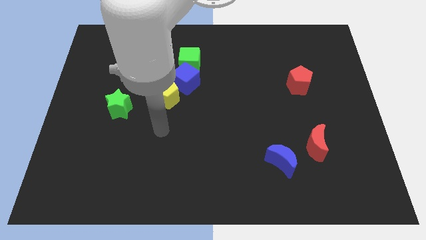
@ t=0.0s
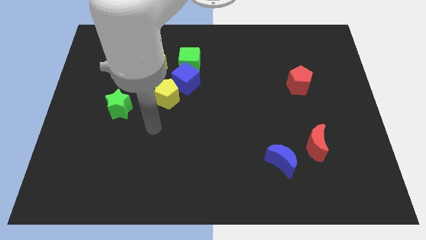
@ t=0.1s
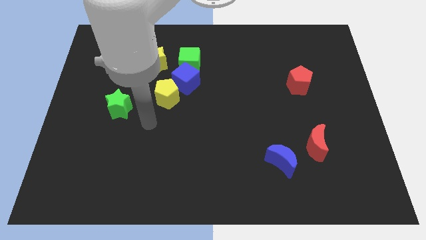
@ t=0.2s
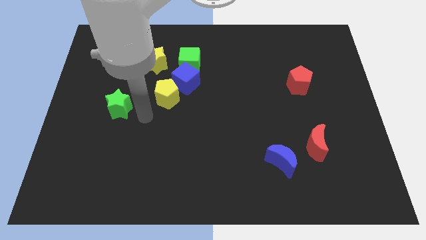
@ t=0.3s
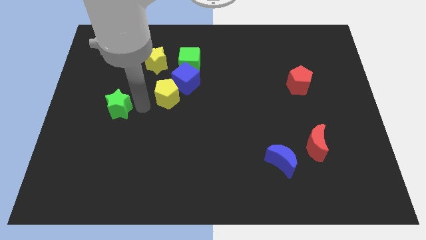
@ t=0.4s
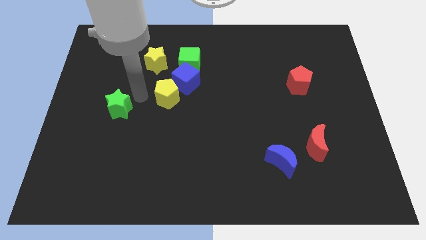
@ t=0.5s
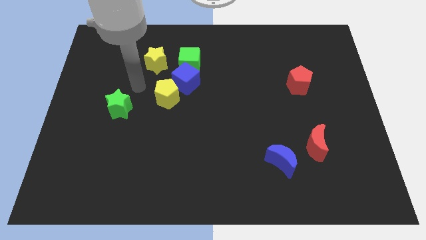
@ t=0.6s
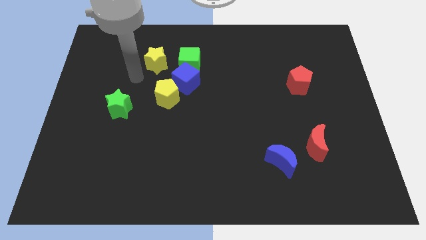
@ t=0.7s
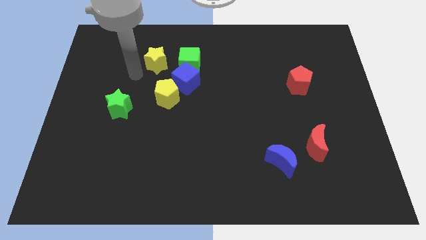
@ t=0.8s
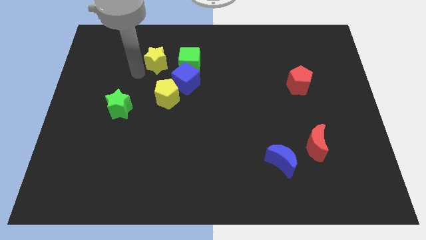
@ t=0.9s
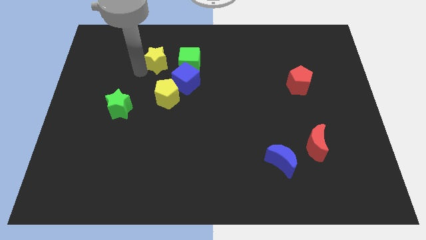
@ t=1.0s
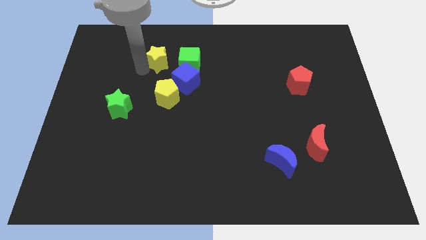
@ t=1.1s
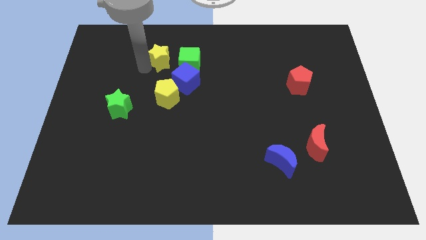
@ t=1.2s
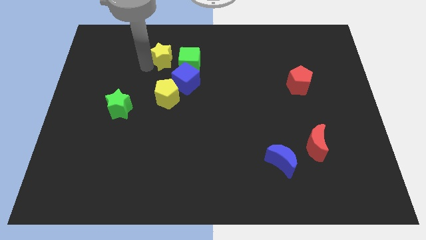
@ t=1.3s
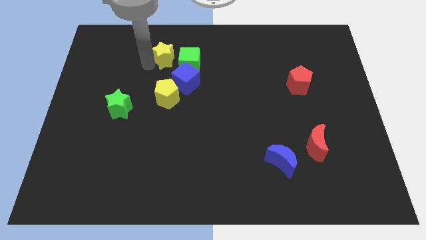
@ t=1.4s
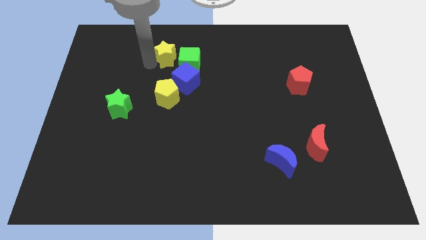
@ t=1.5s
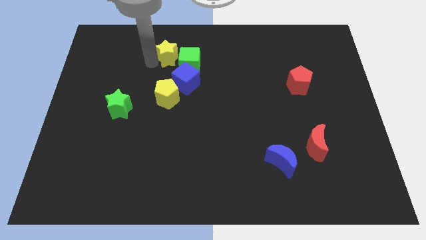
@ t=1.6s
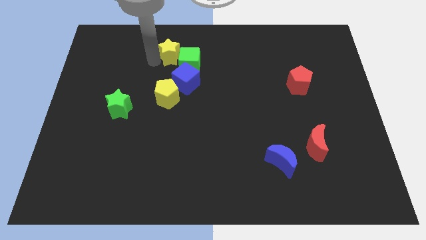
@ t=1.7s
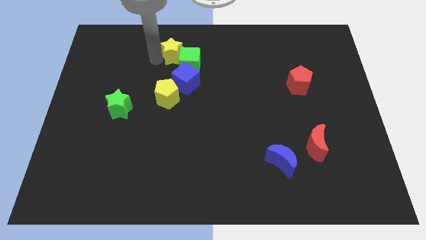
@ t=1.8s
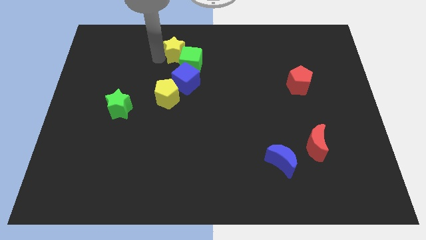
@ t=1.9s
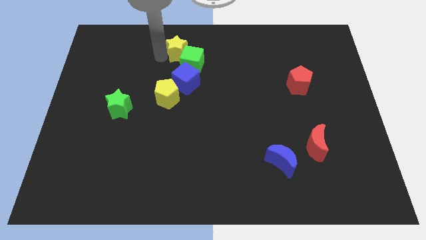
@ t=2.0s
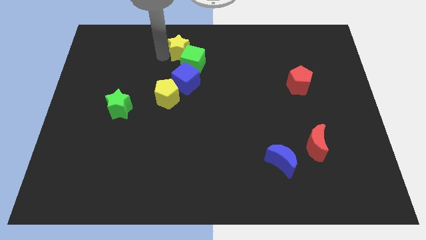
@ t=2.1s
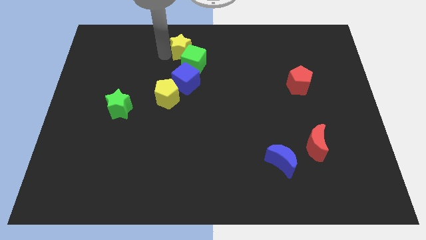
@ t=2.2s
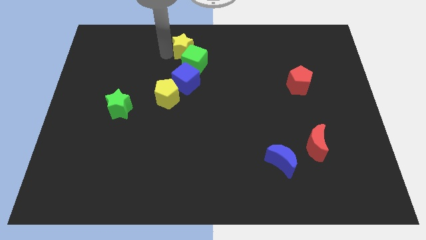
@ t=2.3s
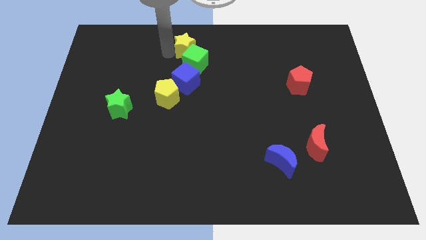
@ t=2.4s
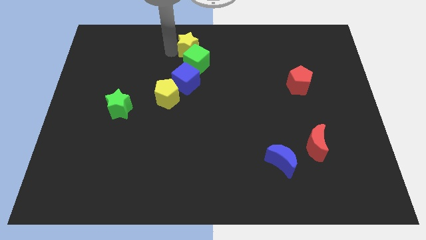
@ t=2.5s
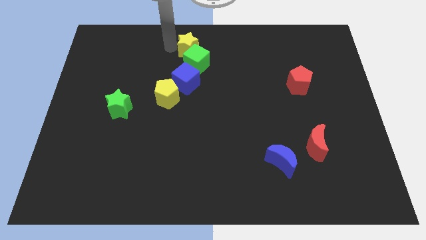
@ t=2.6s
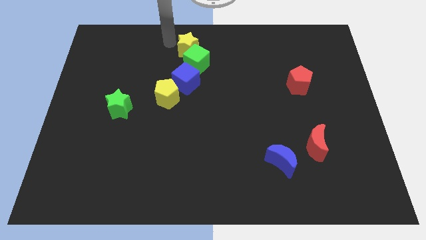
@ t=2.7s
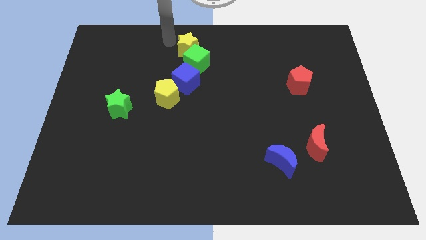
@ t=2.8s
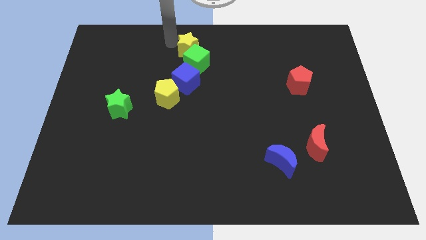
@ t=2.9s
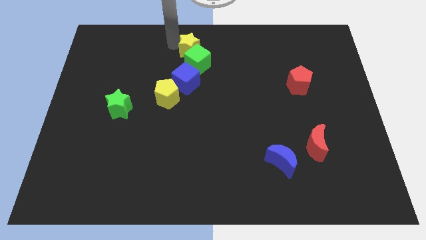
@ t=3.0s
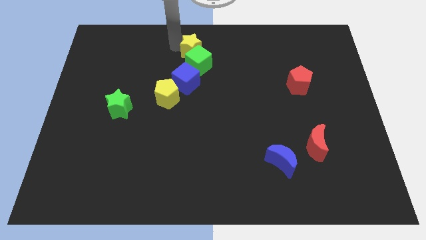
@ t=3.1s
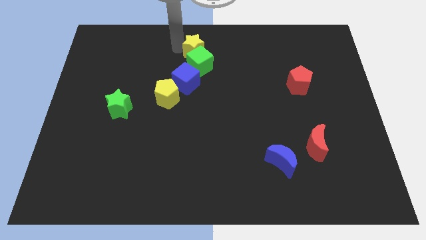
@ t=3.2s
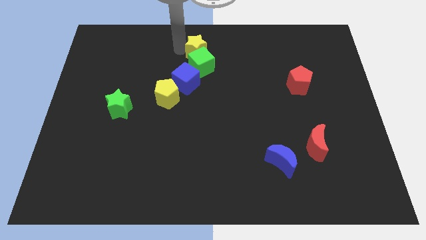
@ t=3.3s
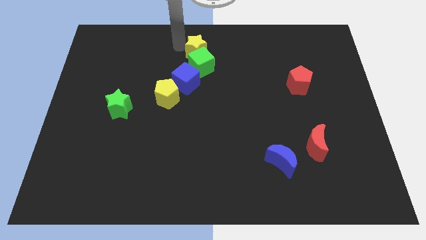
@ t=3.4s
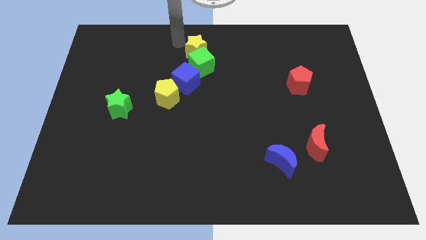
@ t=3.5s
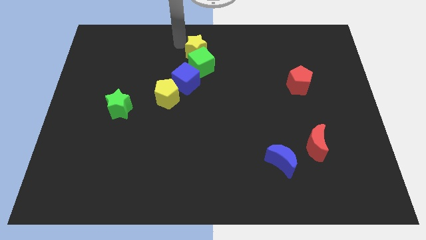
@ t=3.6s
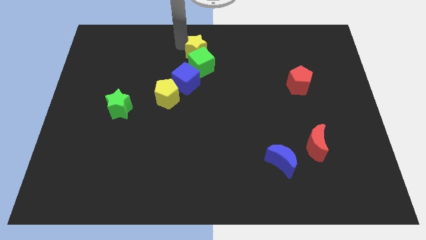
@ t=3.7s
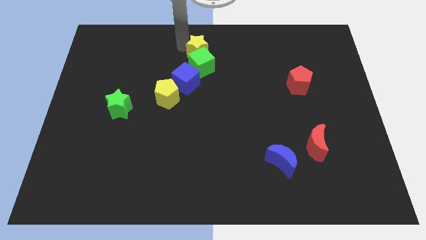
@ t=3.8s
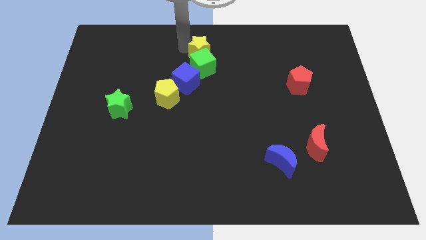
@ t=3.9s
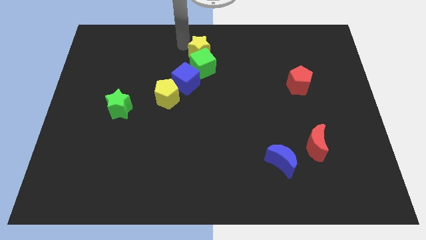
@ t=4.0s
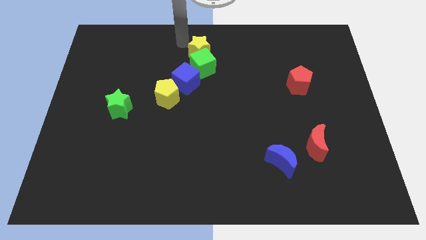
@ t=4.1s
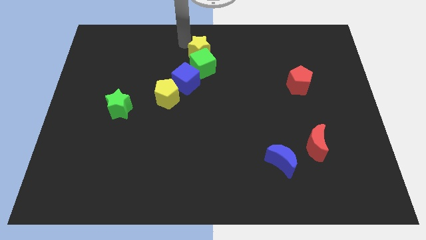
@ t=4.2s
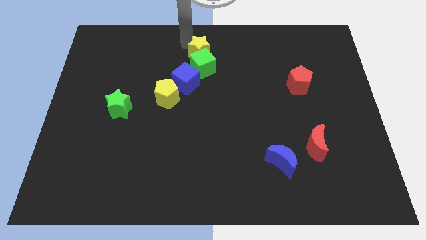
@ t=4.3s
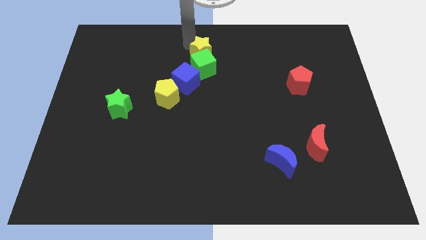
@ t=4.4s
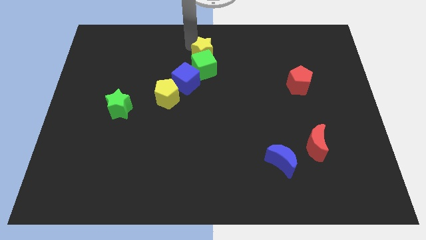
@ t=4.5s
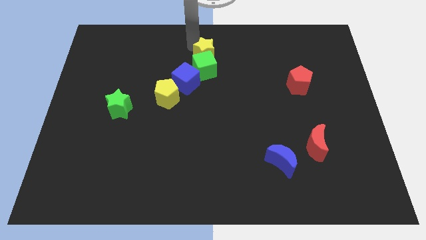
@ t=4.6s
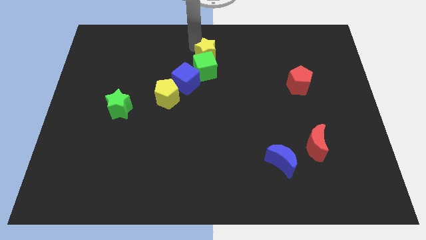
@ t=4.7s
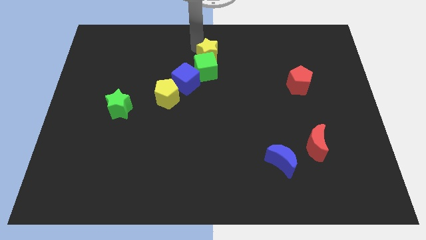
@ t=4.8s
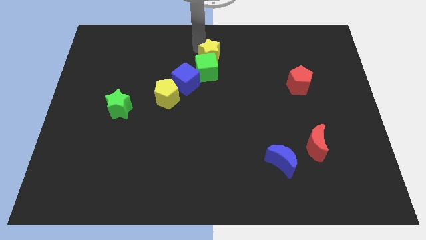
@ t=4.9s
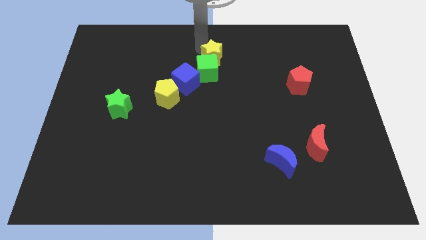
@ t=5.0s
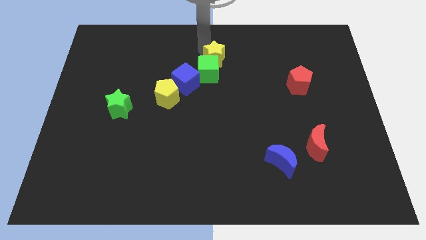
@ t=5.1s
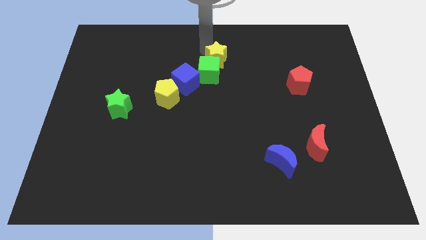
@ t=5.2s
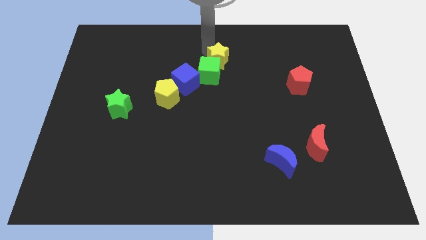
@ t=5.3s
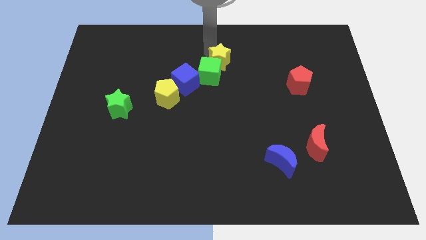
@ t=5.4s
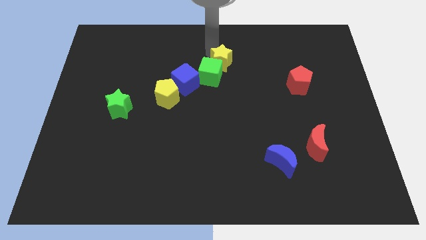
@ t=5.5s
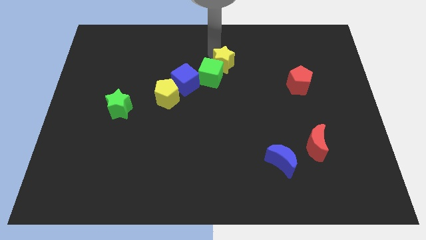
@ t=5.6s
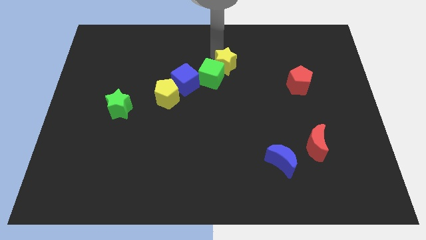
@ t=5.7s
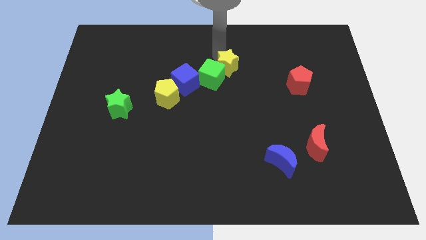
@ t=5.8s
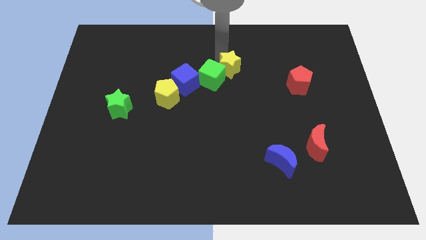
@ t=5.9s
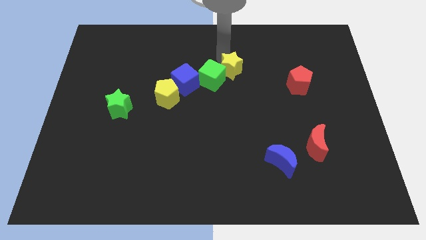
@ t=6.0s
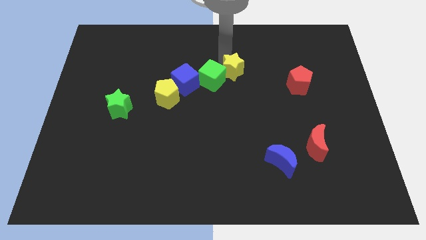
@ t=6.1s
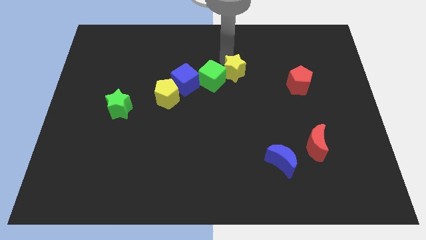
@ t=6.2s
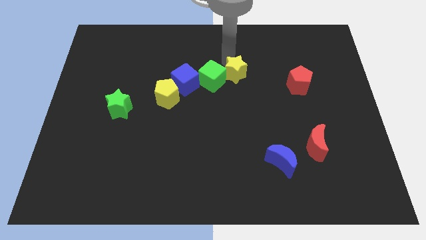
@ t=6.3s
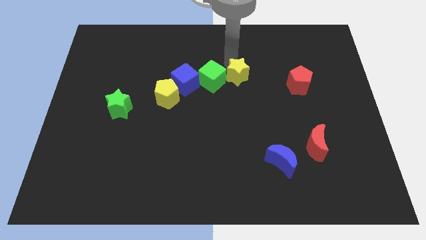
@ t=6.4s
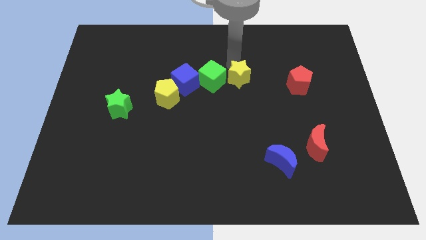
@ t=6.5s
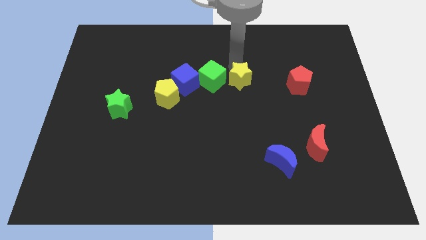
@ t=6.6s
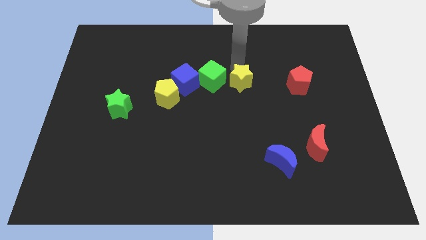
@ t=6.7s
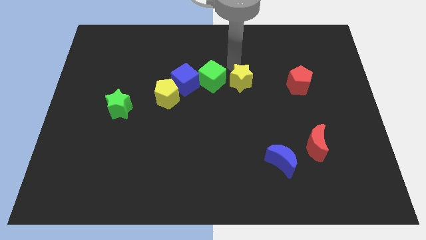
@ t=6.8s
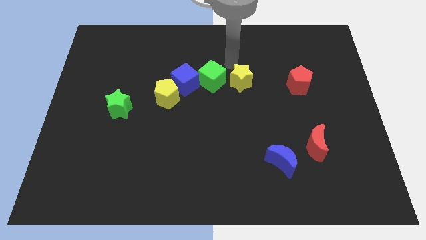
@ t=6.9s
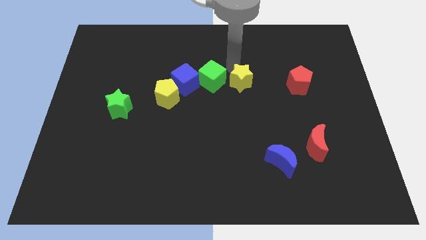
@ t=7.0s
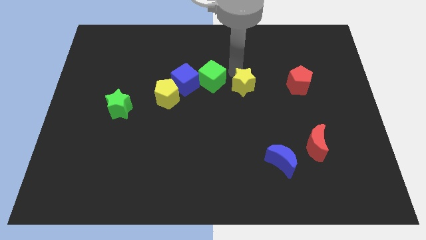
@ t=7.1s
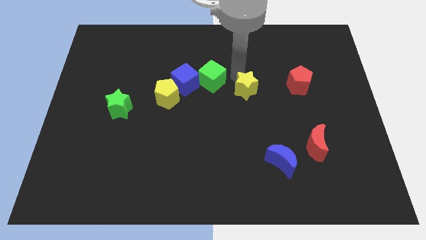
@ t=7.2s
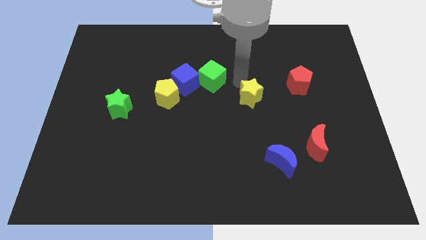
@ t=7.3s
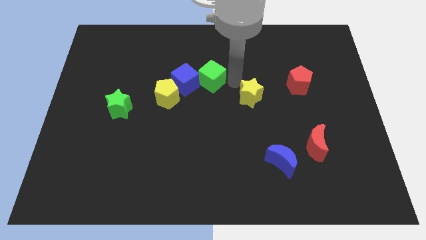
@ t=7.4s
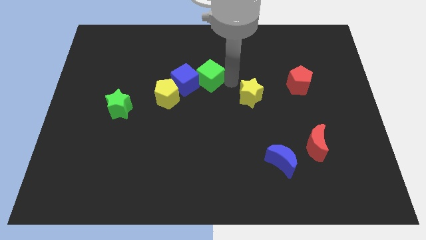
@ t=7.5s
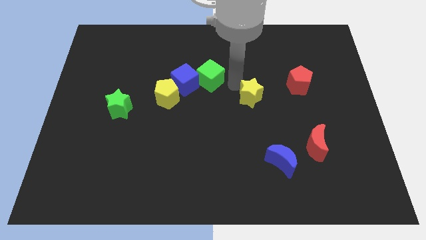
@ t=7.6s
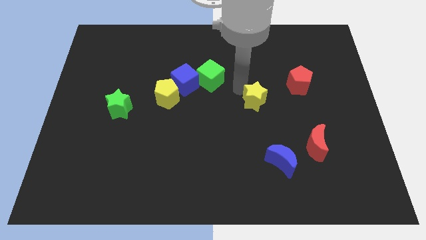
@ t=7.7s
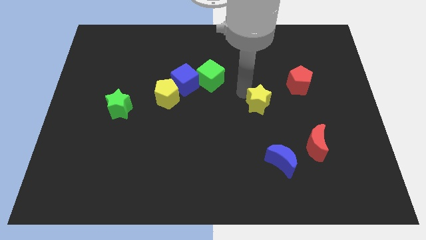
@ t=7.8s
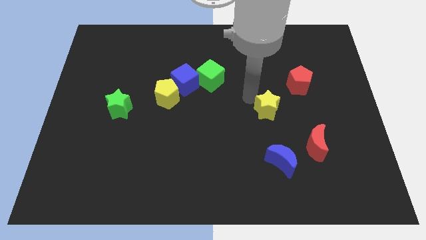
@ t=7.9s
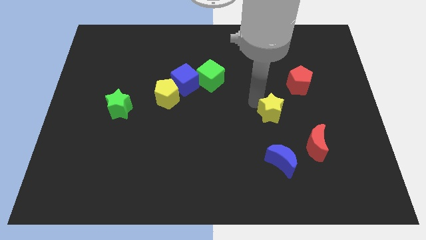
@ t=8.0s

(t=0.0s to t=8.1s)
slide the yellow star to the top left side of the red moon
